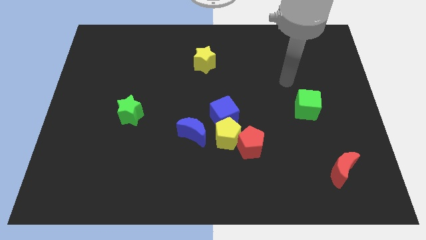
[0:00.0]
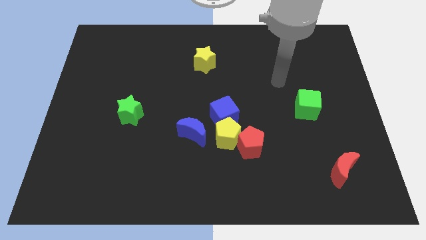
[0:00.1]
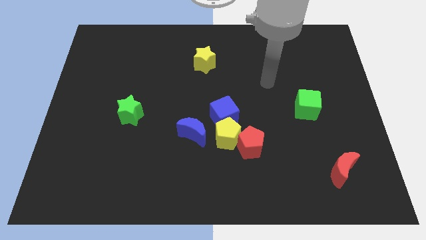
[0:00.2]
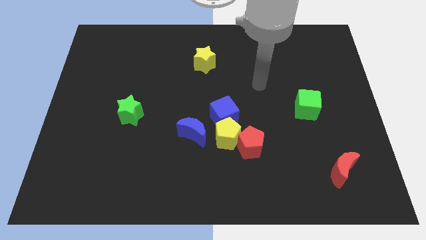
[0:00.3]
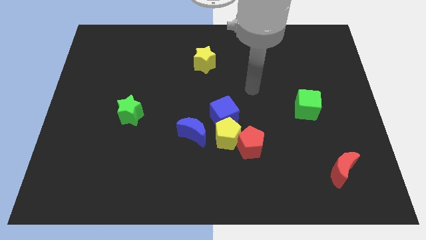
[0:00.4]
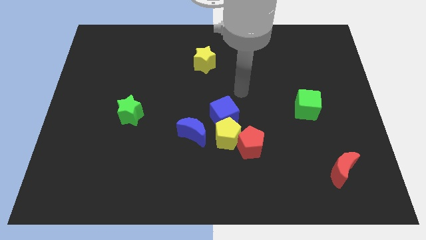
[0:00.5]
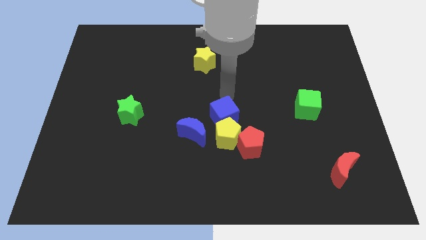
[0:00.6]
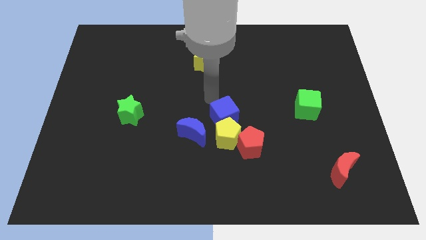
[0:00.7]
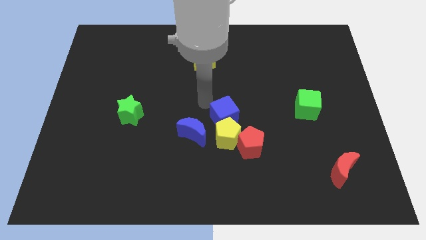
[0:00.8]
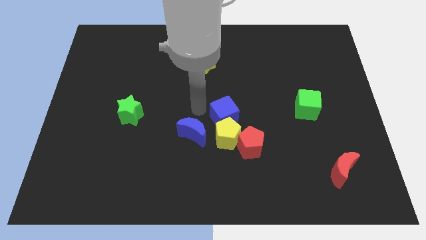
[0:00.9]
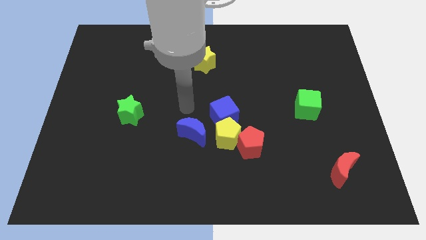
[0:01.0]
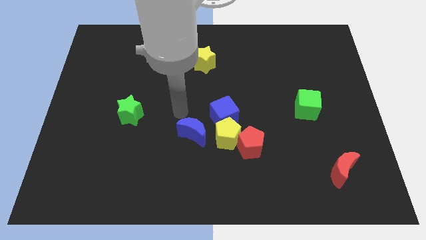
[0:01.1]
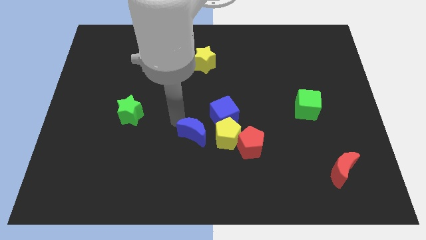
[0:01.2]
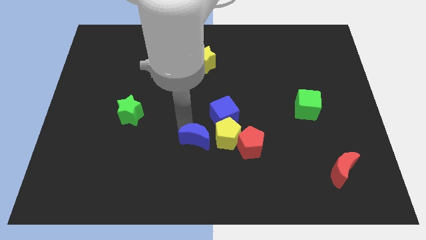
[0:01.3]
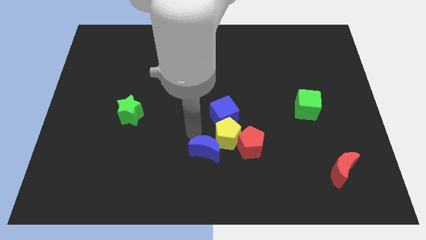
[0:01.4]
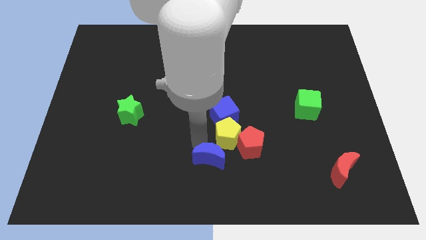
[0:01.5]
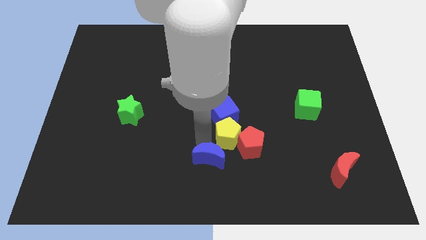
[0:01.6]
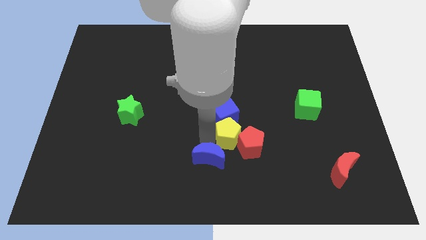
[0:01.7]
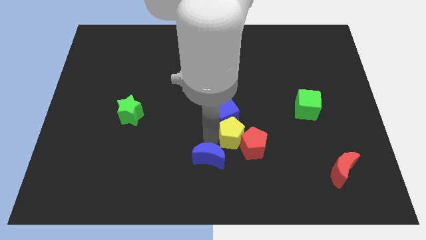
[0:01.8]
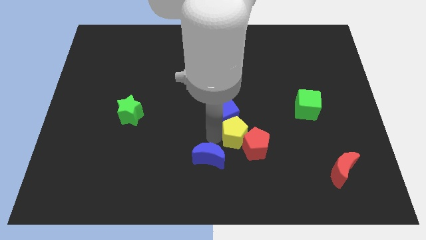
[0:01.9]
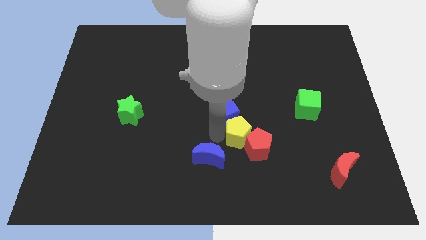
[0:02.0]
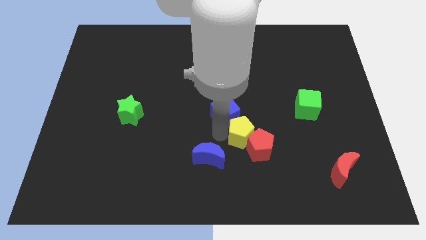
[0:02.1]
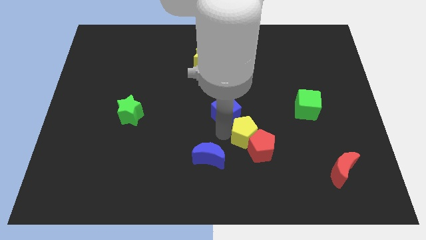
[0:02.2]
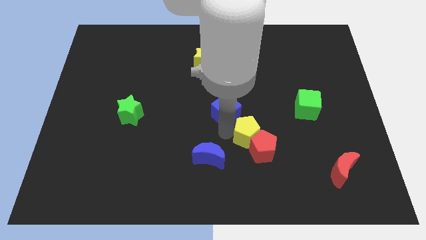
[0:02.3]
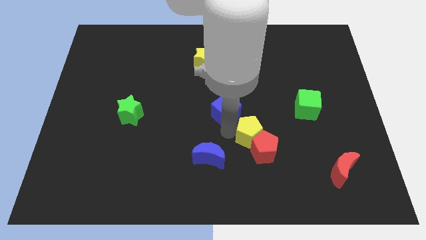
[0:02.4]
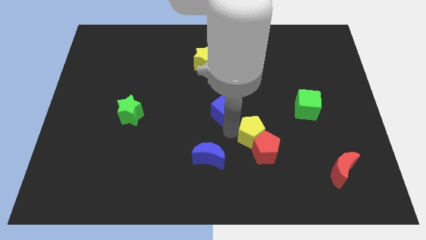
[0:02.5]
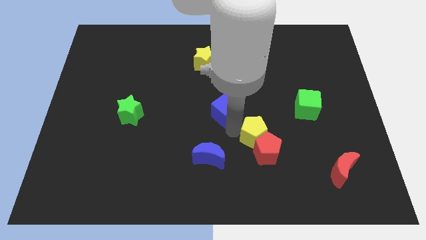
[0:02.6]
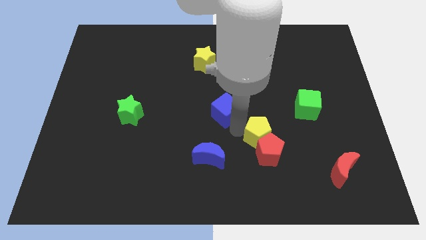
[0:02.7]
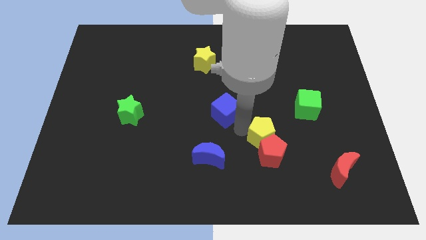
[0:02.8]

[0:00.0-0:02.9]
push the yellow pentagon a little right

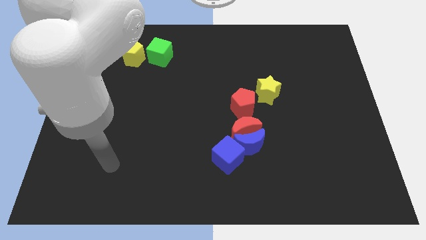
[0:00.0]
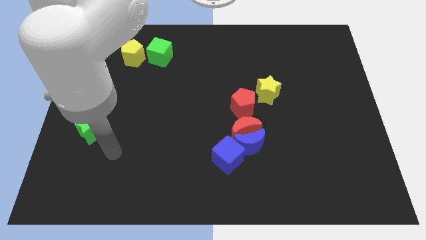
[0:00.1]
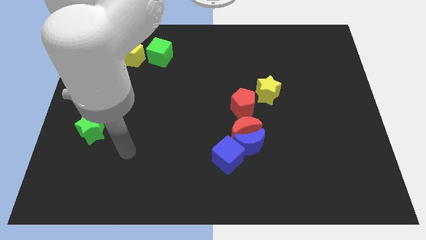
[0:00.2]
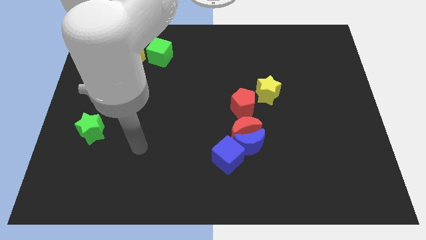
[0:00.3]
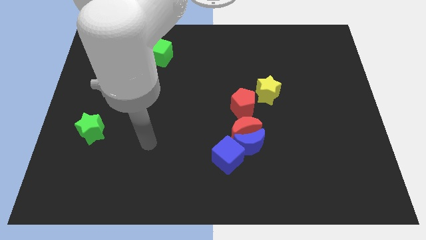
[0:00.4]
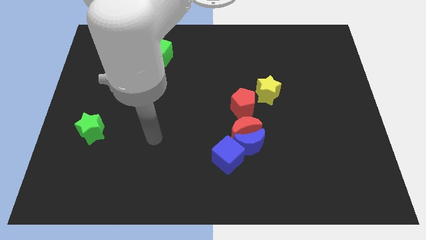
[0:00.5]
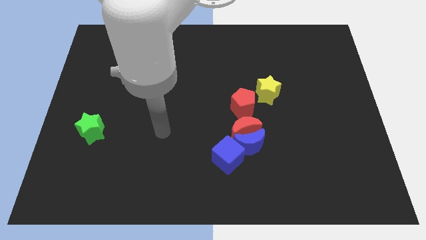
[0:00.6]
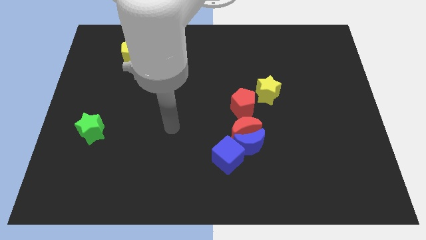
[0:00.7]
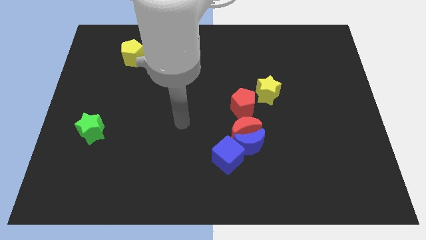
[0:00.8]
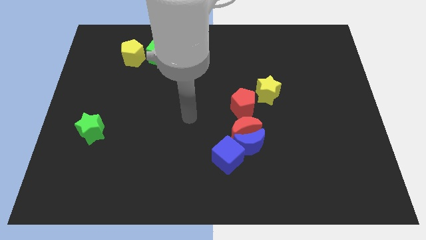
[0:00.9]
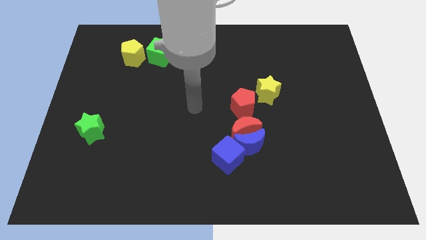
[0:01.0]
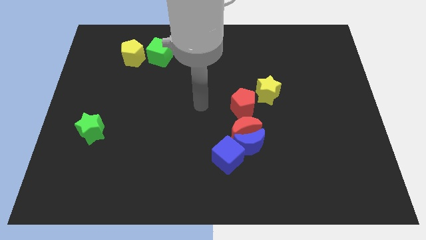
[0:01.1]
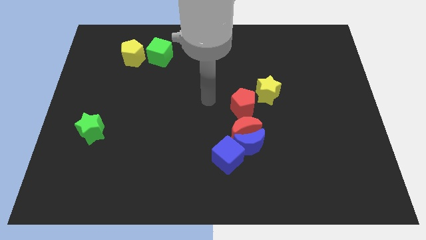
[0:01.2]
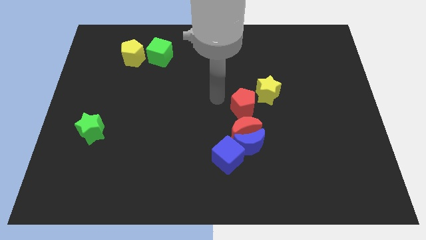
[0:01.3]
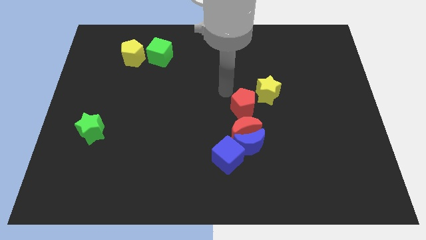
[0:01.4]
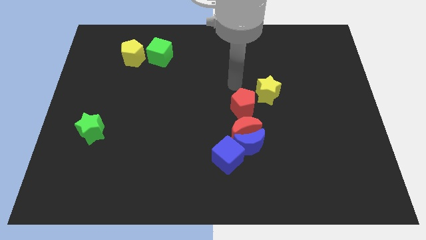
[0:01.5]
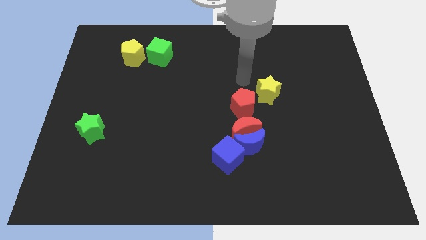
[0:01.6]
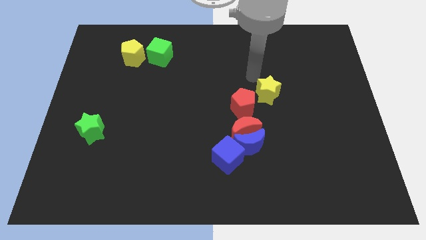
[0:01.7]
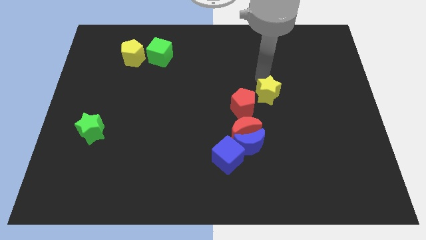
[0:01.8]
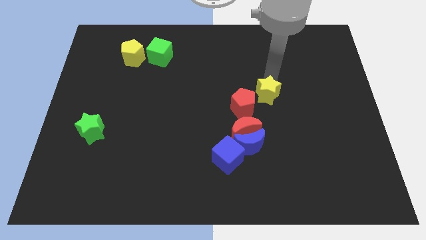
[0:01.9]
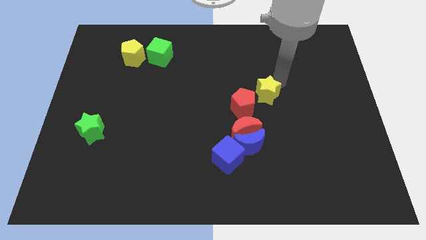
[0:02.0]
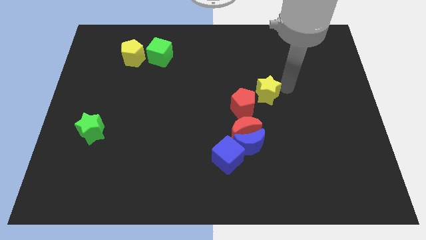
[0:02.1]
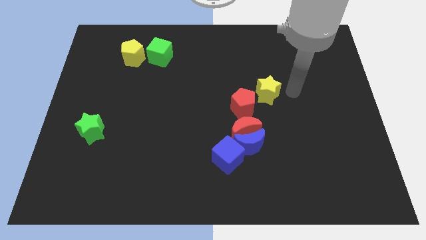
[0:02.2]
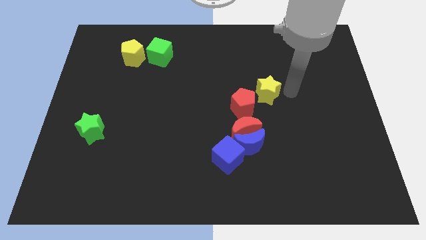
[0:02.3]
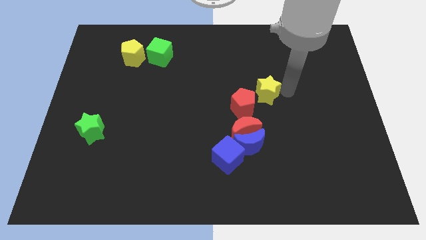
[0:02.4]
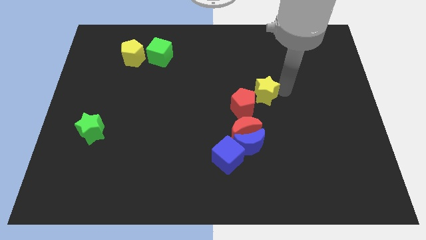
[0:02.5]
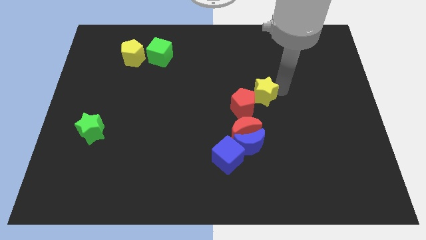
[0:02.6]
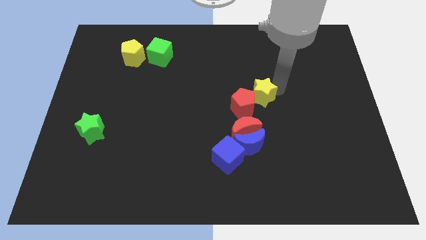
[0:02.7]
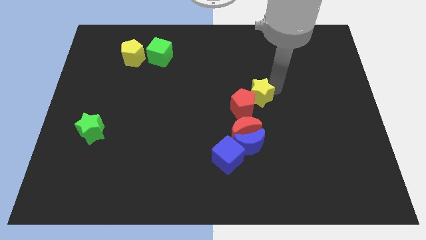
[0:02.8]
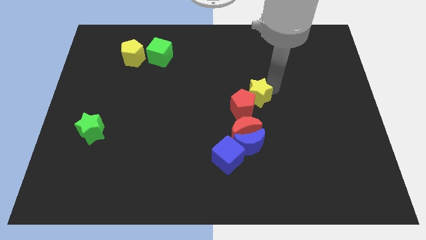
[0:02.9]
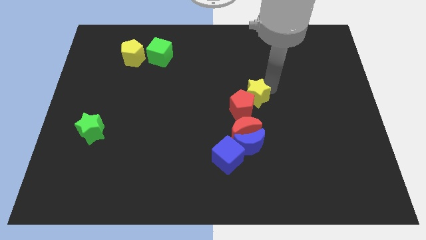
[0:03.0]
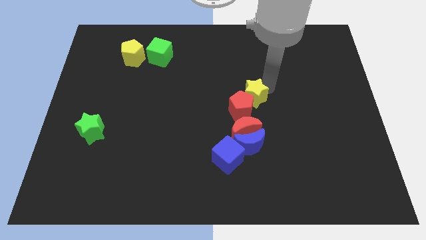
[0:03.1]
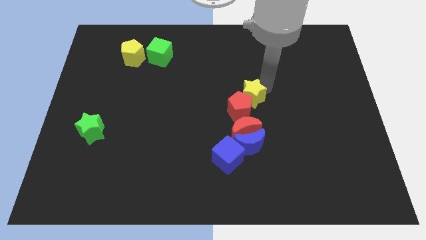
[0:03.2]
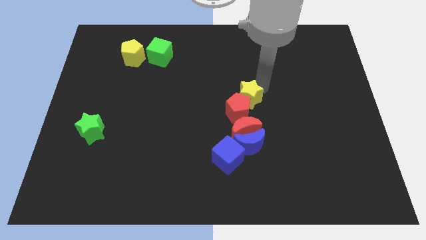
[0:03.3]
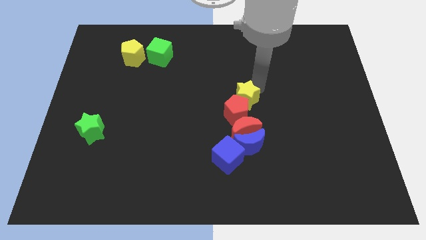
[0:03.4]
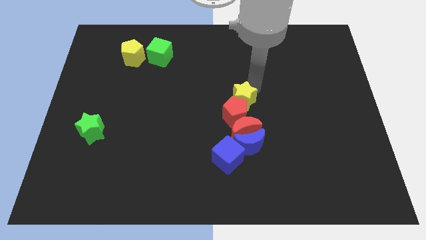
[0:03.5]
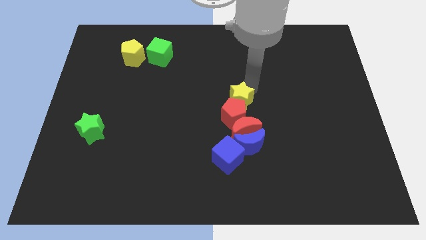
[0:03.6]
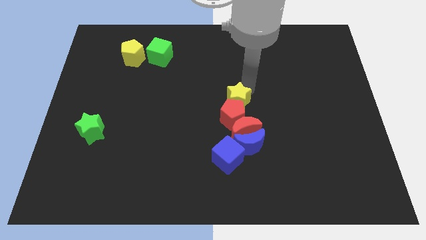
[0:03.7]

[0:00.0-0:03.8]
move the yellow star slightly left

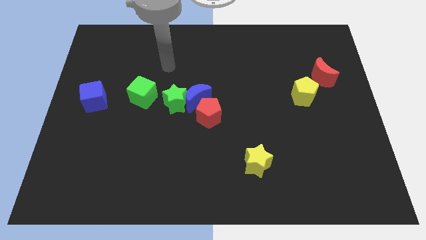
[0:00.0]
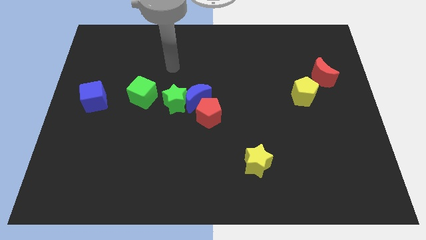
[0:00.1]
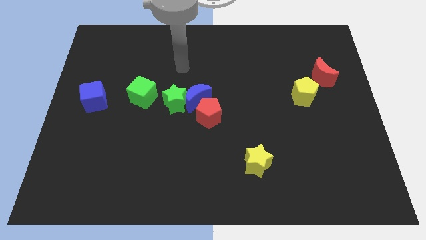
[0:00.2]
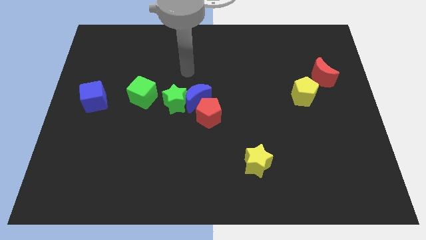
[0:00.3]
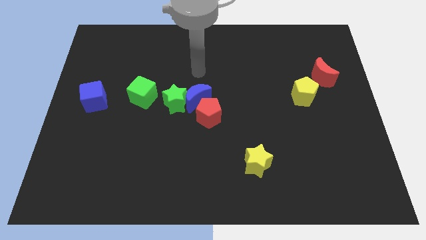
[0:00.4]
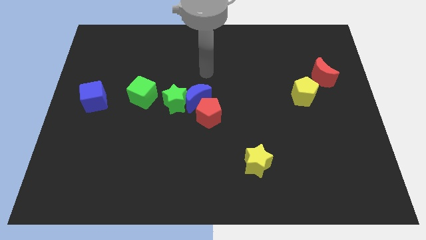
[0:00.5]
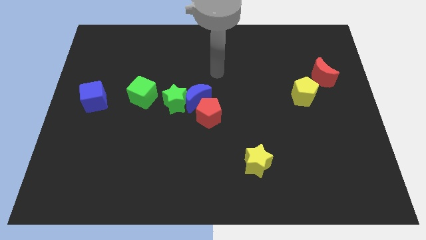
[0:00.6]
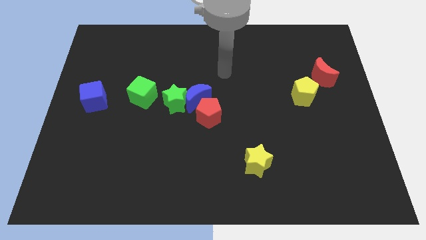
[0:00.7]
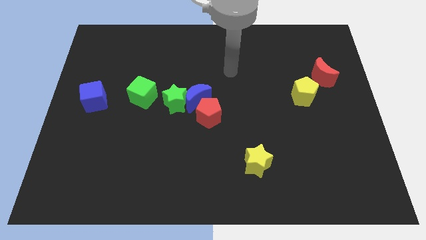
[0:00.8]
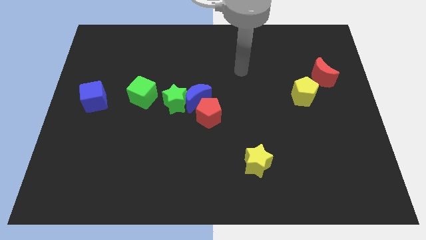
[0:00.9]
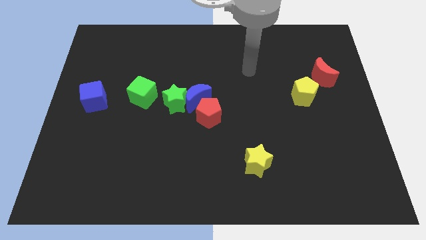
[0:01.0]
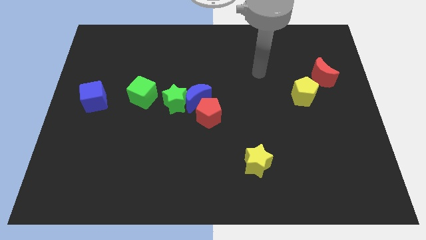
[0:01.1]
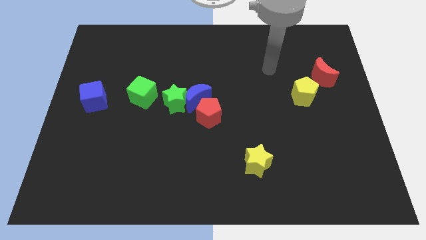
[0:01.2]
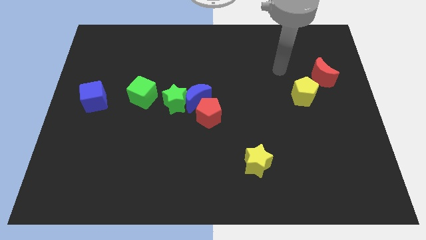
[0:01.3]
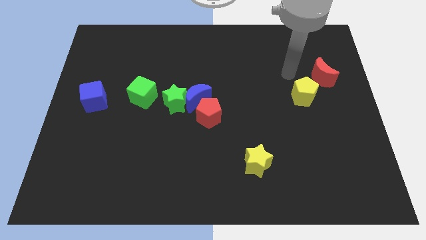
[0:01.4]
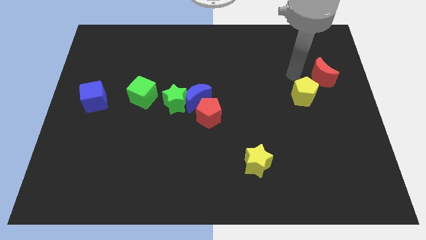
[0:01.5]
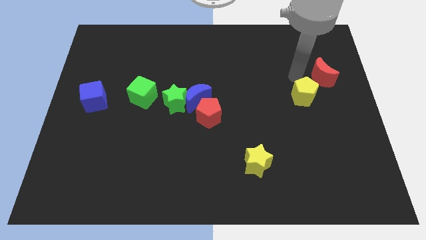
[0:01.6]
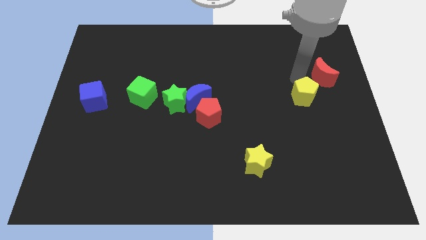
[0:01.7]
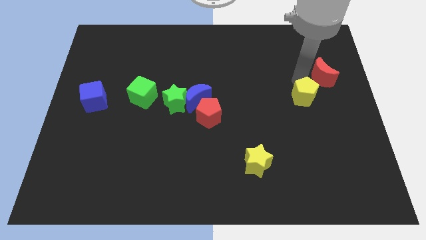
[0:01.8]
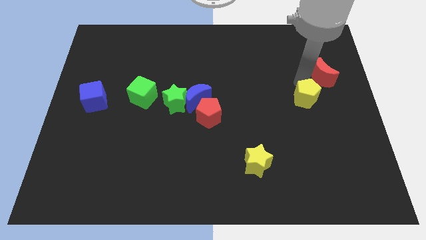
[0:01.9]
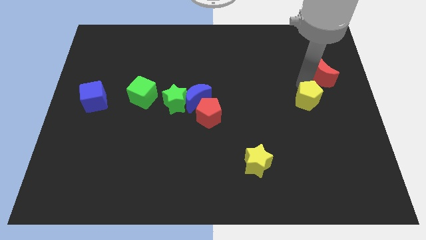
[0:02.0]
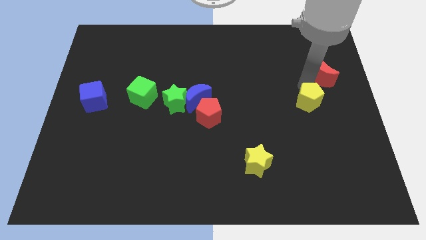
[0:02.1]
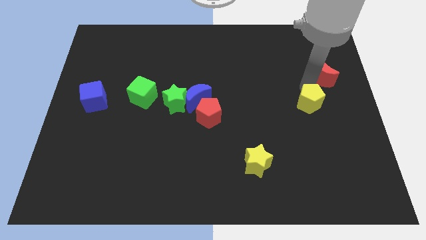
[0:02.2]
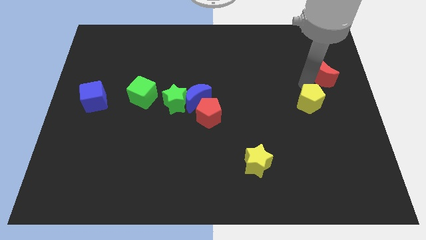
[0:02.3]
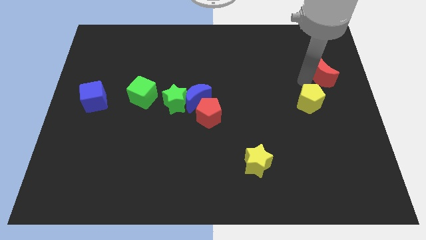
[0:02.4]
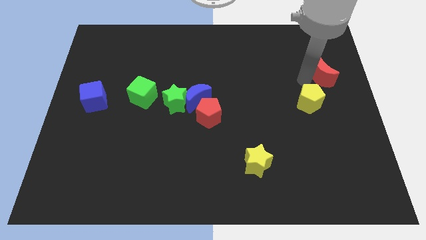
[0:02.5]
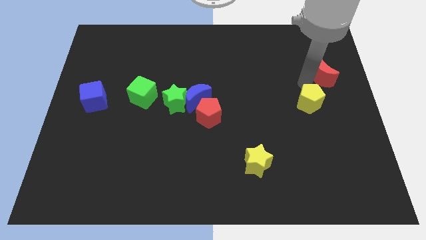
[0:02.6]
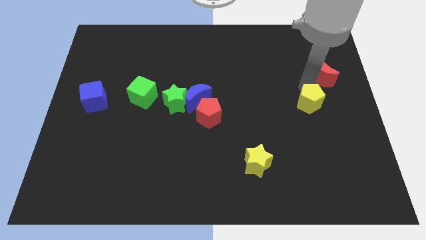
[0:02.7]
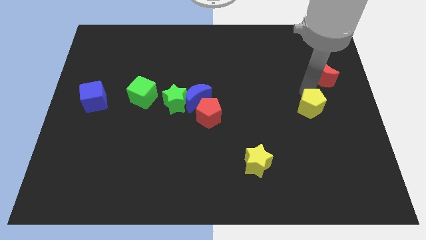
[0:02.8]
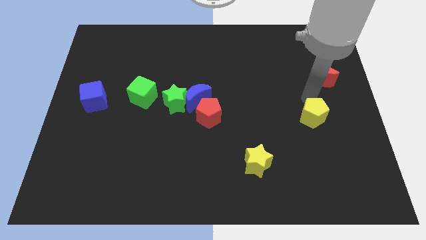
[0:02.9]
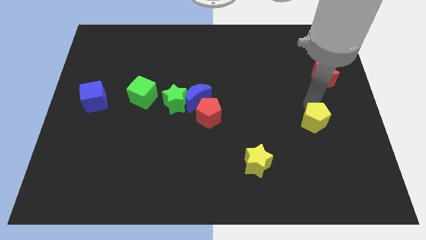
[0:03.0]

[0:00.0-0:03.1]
move the yellow pentagon downwards a bit
